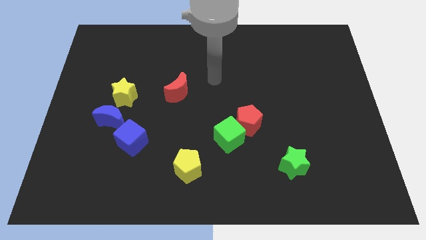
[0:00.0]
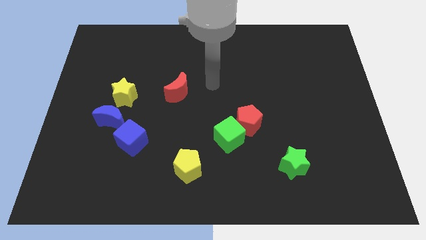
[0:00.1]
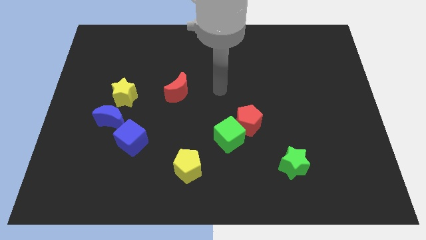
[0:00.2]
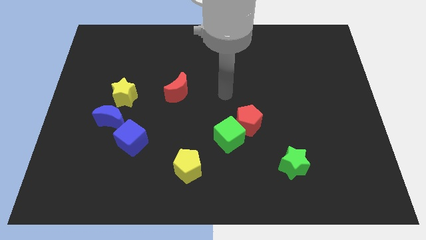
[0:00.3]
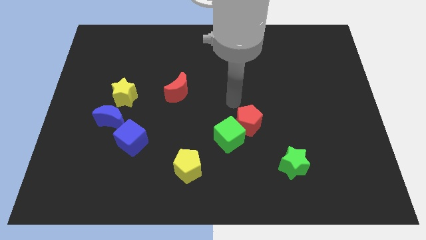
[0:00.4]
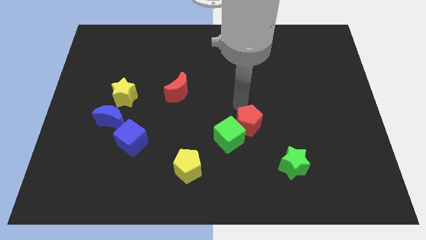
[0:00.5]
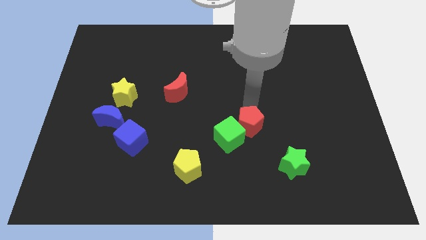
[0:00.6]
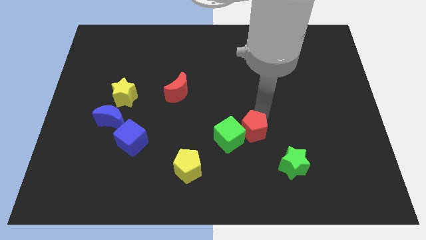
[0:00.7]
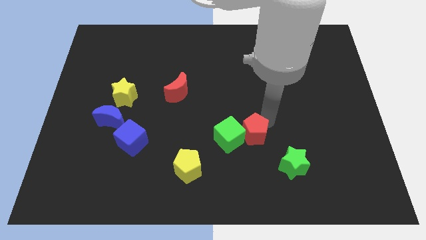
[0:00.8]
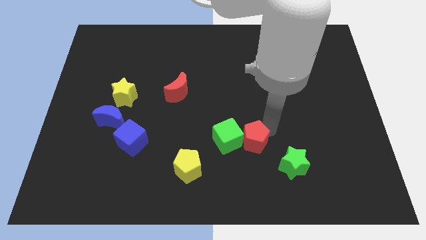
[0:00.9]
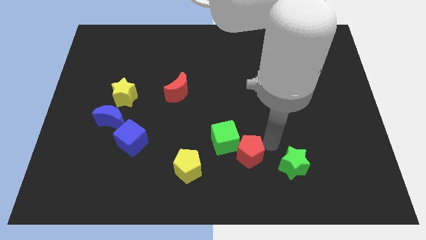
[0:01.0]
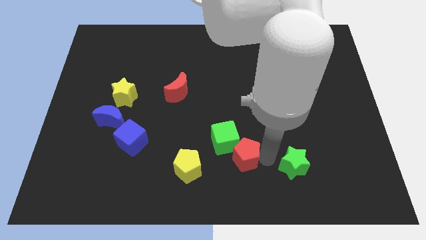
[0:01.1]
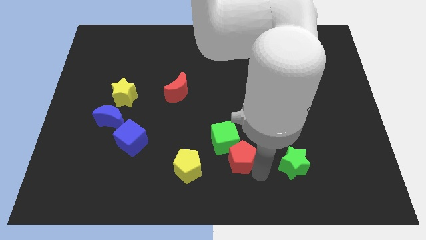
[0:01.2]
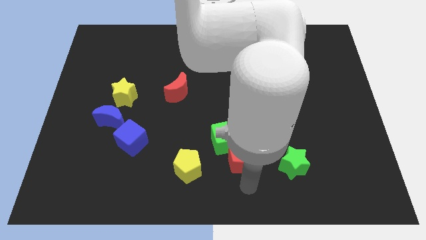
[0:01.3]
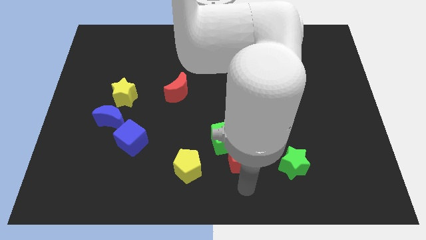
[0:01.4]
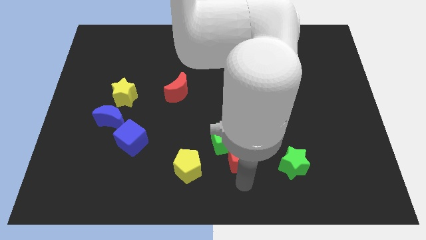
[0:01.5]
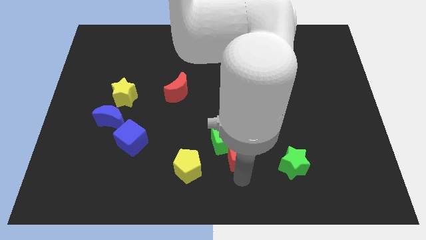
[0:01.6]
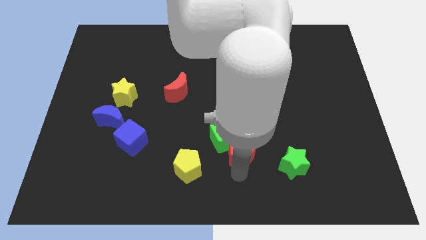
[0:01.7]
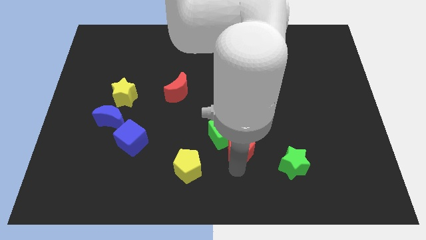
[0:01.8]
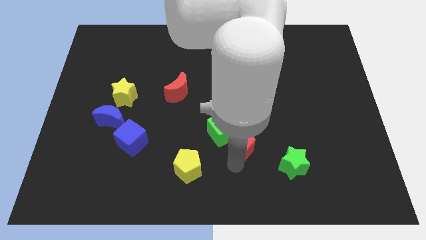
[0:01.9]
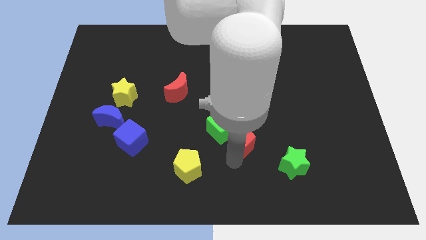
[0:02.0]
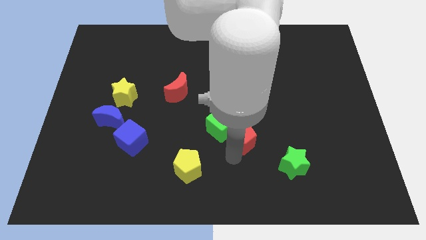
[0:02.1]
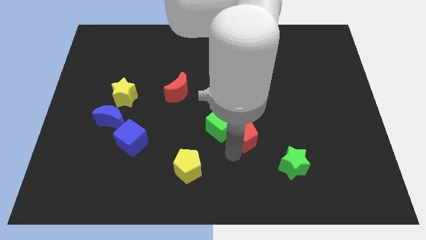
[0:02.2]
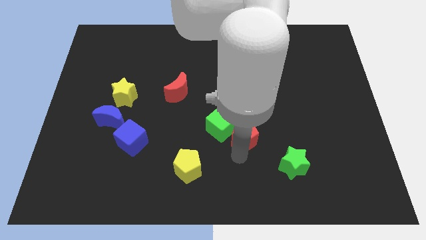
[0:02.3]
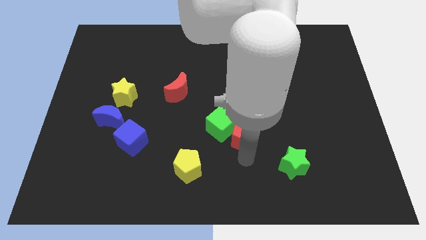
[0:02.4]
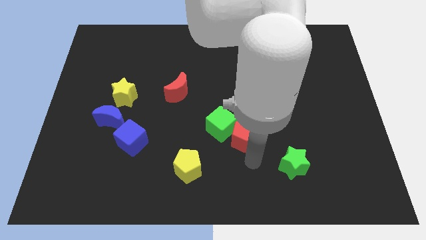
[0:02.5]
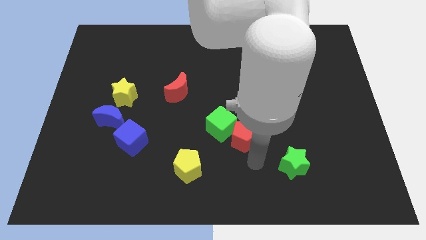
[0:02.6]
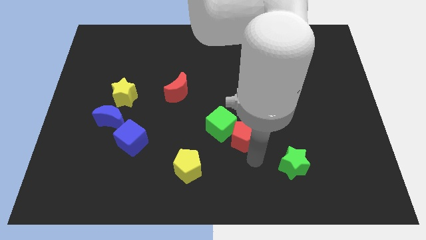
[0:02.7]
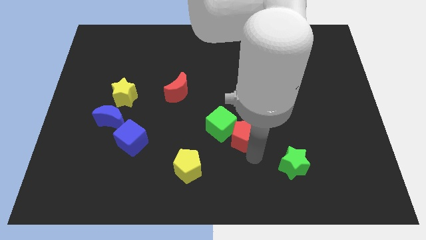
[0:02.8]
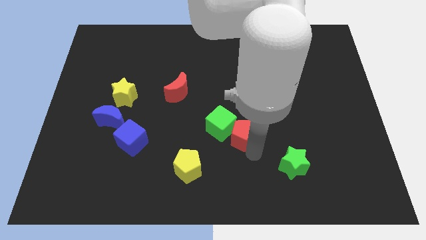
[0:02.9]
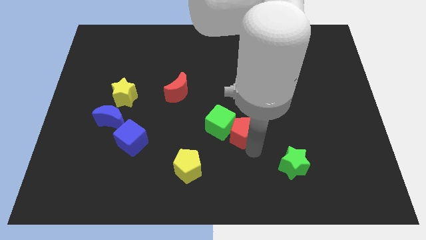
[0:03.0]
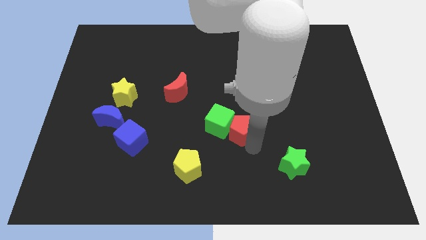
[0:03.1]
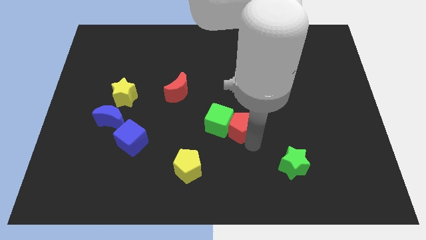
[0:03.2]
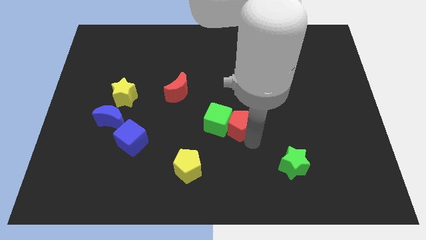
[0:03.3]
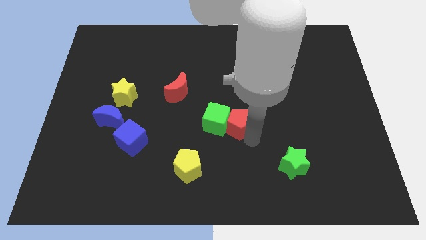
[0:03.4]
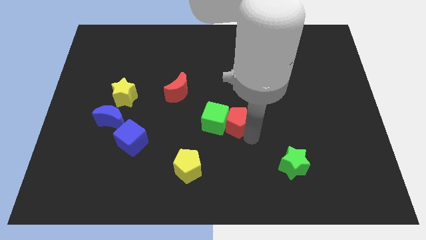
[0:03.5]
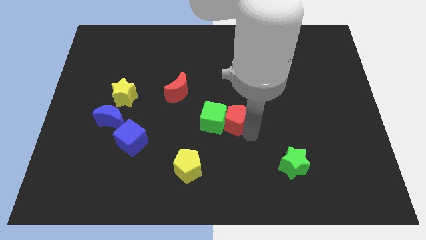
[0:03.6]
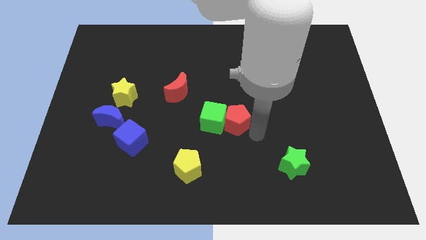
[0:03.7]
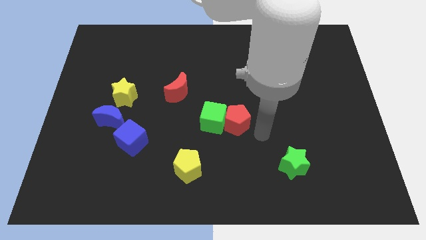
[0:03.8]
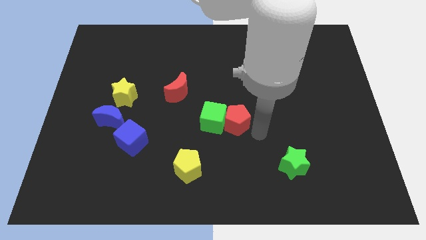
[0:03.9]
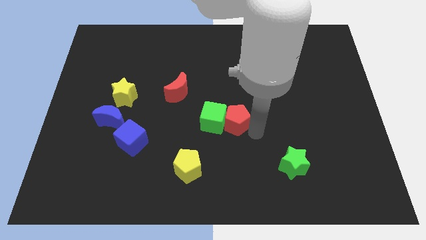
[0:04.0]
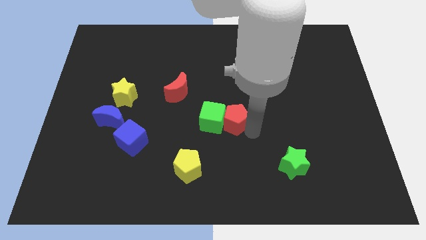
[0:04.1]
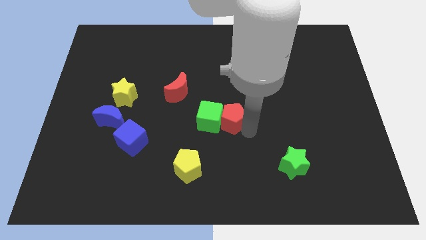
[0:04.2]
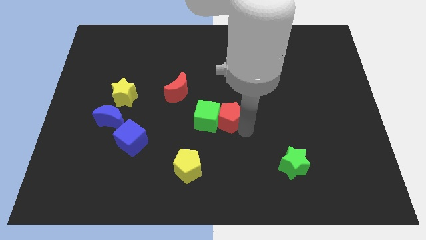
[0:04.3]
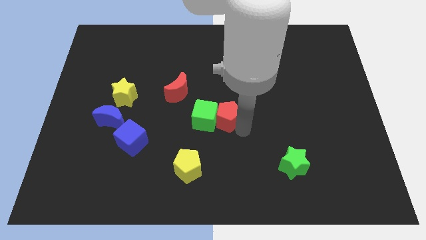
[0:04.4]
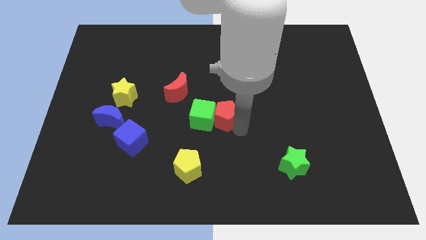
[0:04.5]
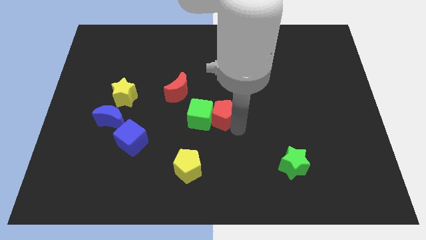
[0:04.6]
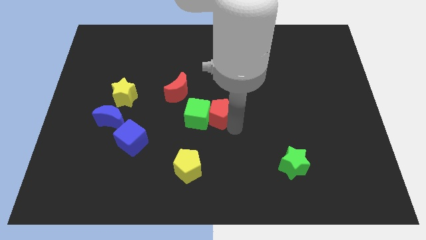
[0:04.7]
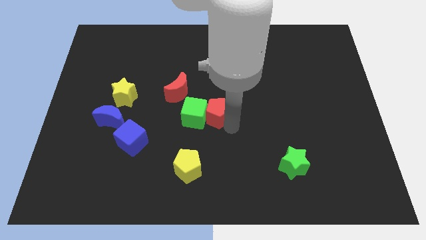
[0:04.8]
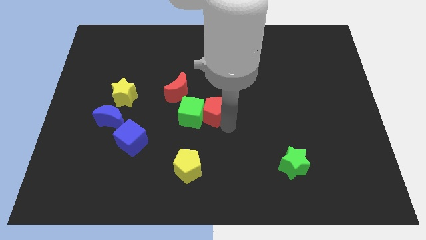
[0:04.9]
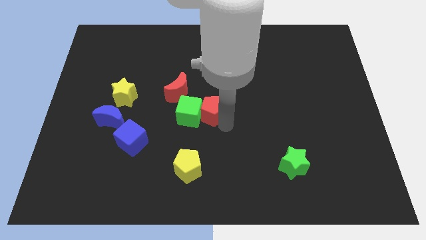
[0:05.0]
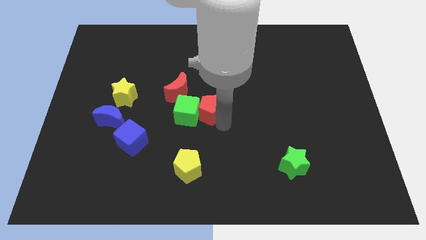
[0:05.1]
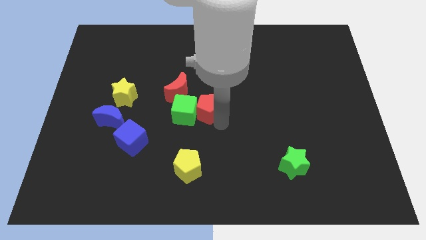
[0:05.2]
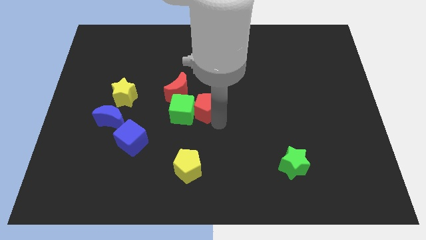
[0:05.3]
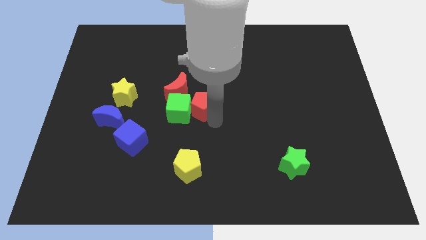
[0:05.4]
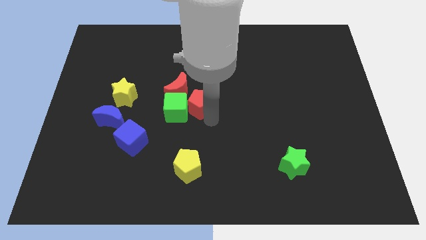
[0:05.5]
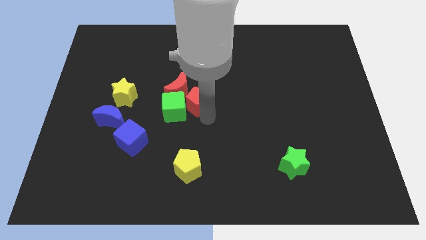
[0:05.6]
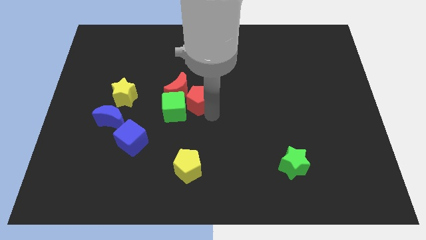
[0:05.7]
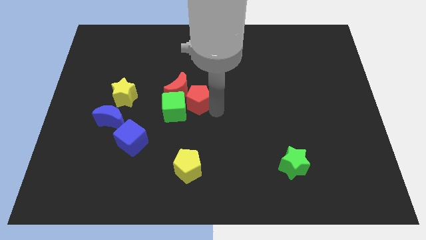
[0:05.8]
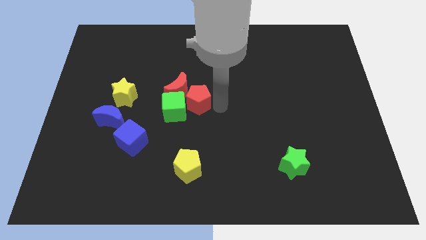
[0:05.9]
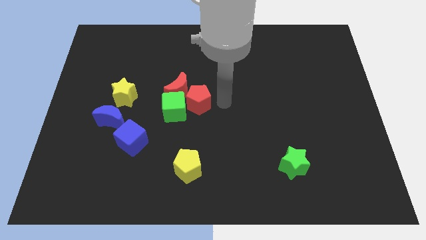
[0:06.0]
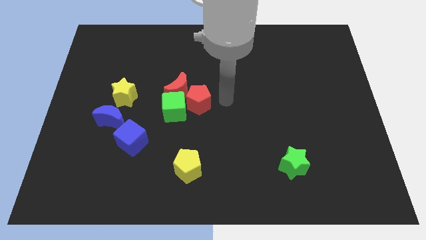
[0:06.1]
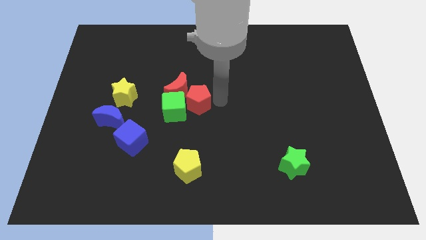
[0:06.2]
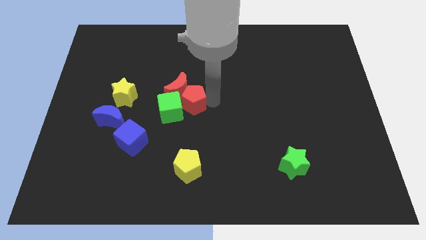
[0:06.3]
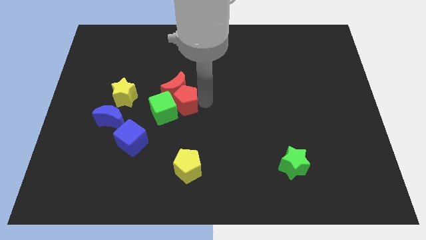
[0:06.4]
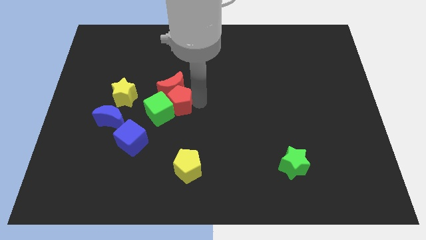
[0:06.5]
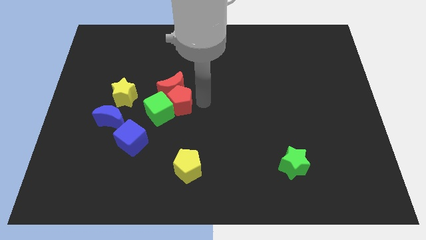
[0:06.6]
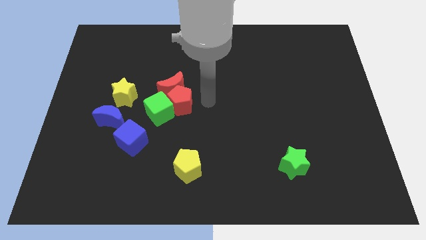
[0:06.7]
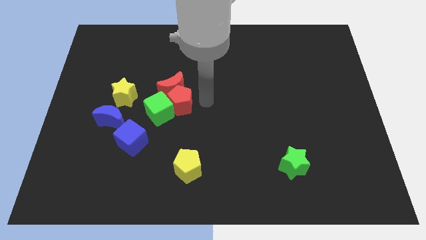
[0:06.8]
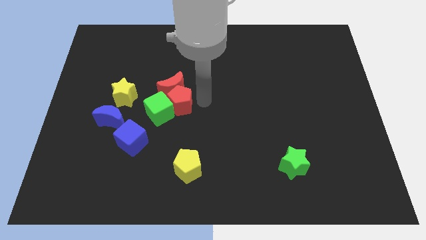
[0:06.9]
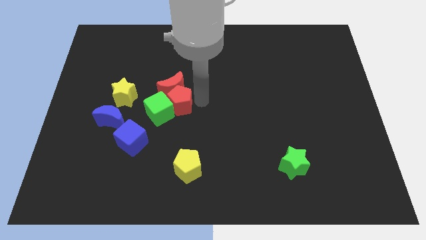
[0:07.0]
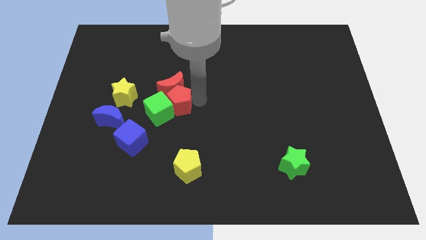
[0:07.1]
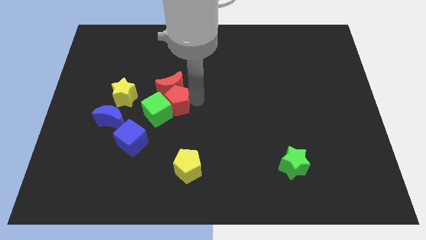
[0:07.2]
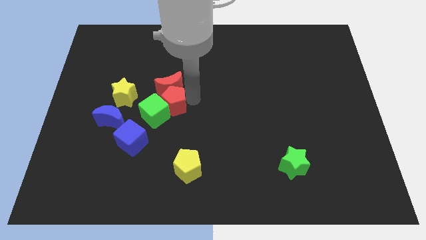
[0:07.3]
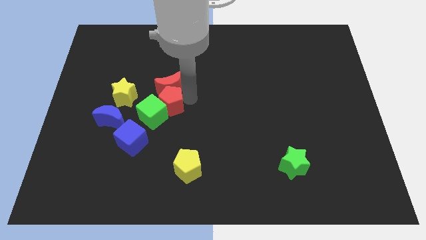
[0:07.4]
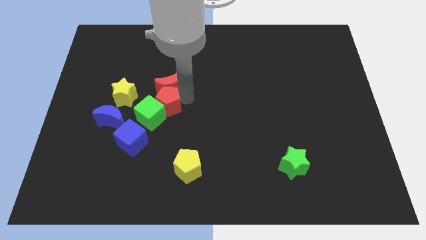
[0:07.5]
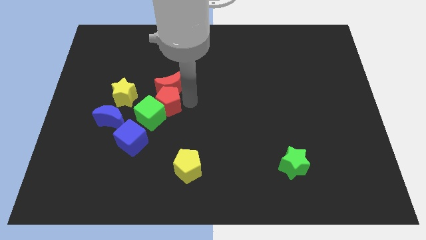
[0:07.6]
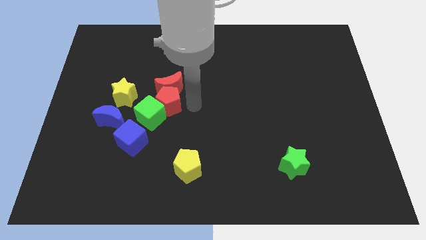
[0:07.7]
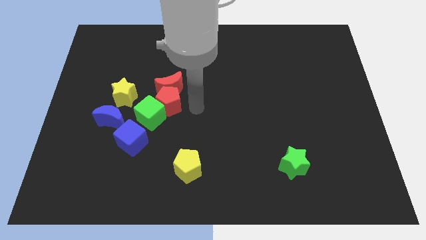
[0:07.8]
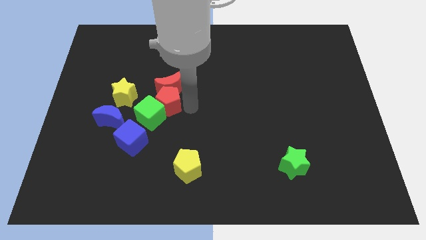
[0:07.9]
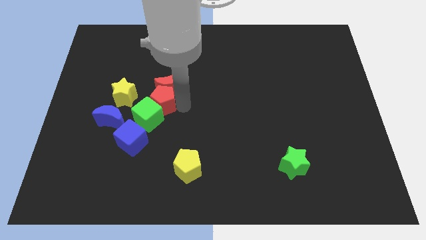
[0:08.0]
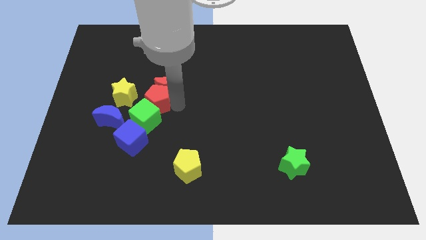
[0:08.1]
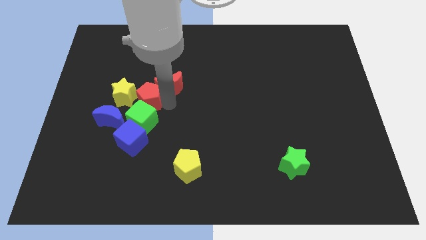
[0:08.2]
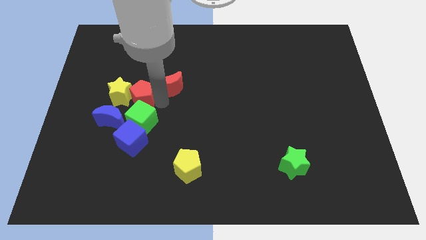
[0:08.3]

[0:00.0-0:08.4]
slide the red pentagon next to the yellow star
